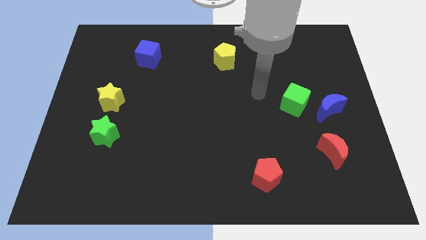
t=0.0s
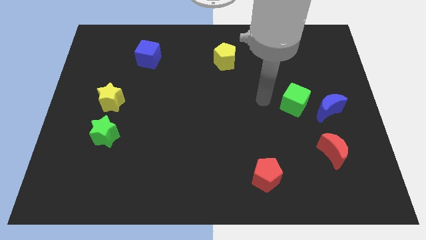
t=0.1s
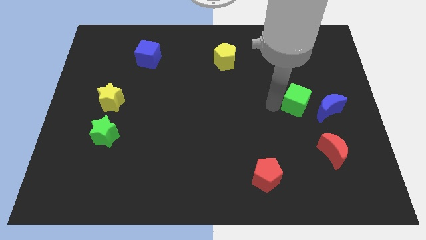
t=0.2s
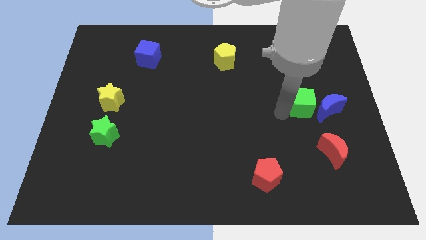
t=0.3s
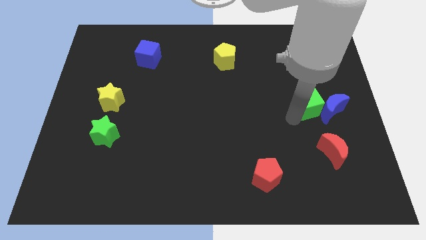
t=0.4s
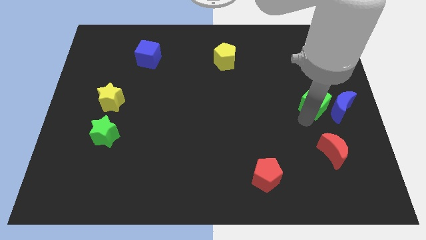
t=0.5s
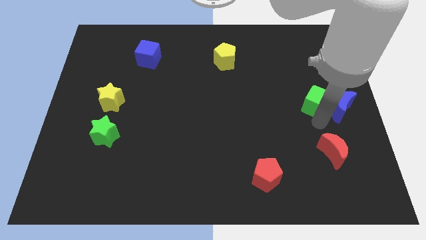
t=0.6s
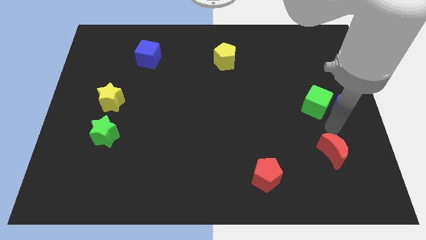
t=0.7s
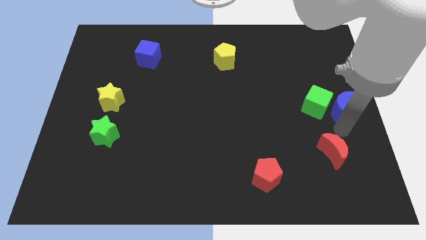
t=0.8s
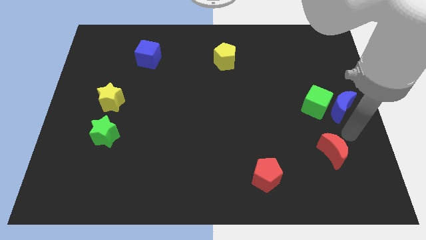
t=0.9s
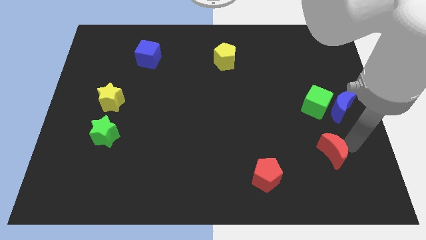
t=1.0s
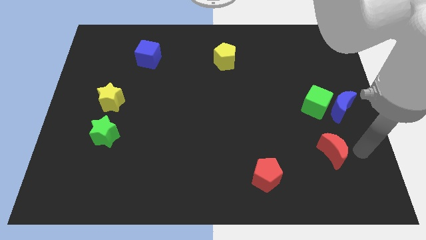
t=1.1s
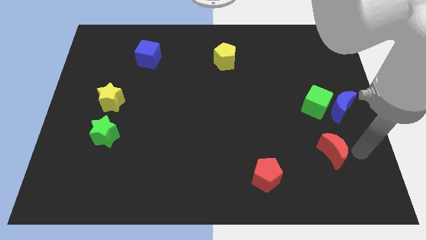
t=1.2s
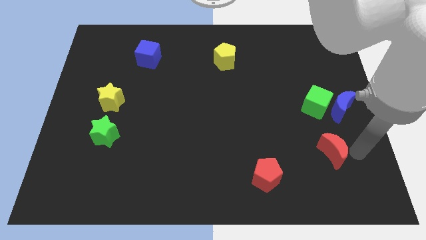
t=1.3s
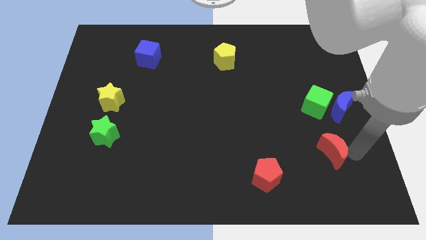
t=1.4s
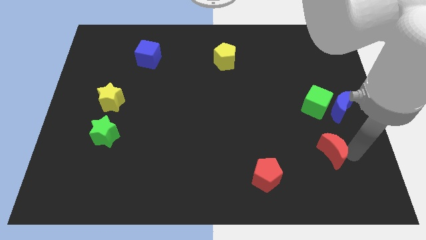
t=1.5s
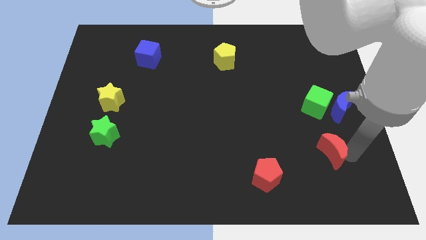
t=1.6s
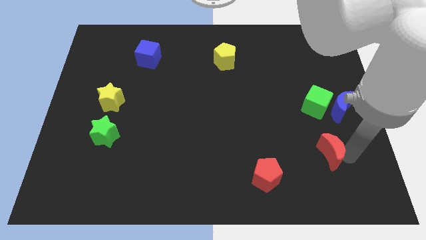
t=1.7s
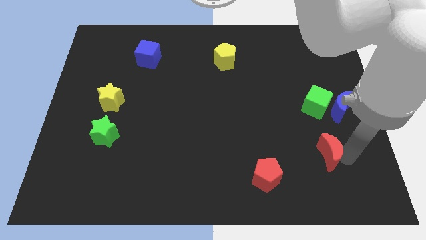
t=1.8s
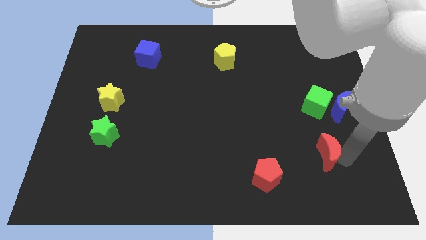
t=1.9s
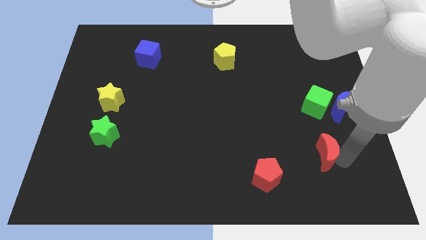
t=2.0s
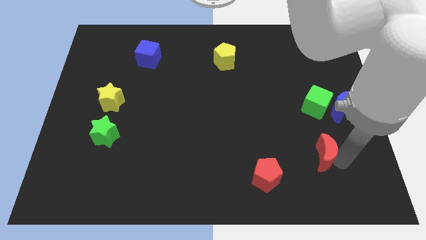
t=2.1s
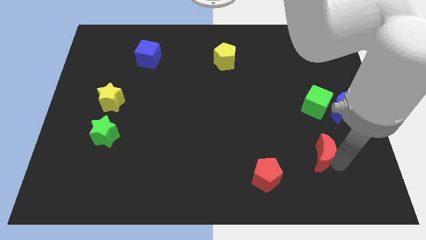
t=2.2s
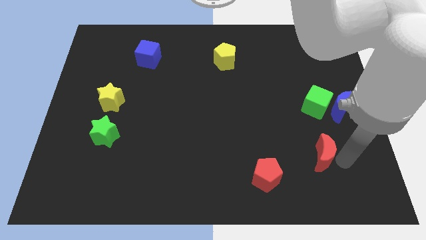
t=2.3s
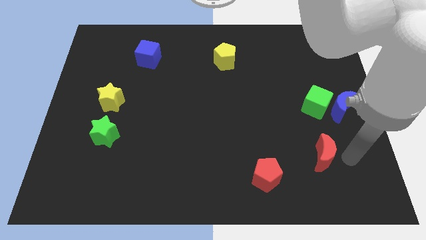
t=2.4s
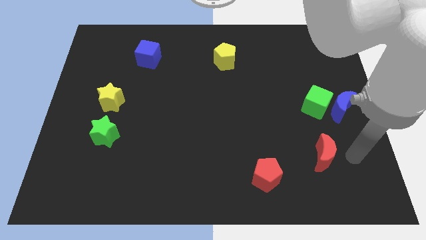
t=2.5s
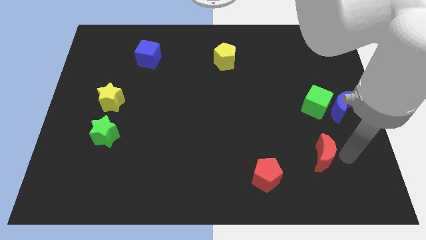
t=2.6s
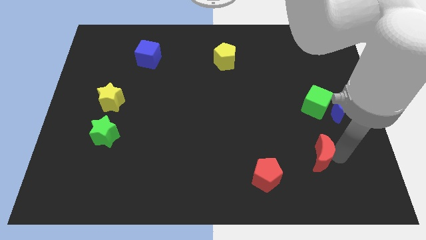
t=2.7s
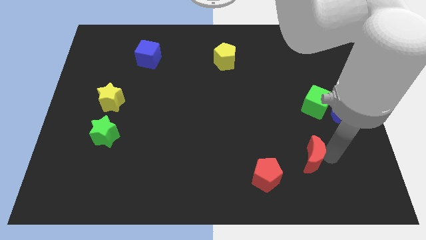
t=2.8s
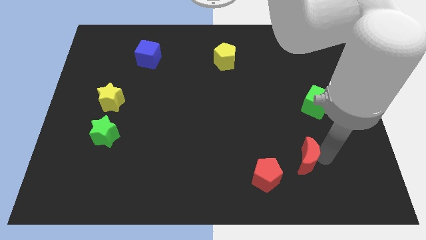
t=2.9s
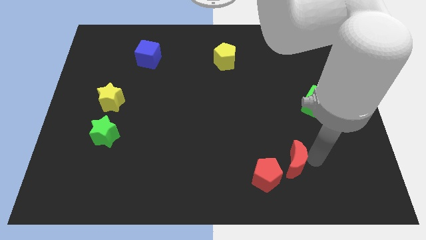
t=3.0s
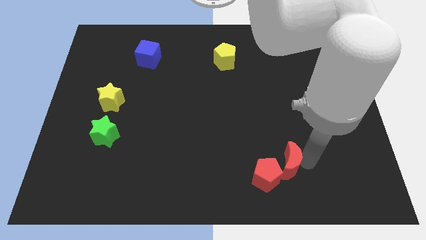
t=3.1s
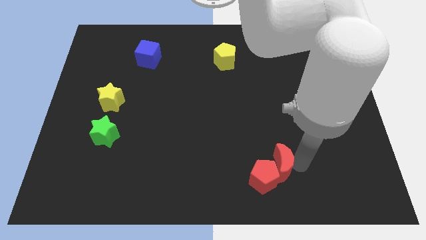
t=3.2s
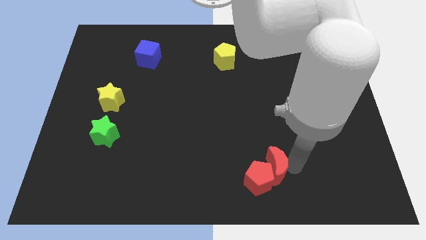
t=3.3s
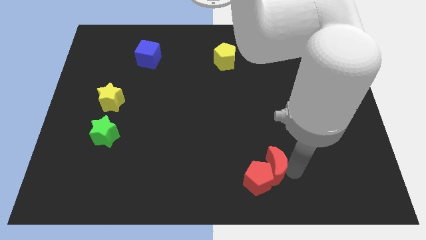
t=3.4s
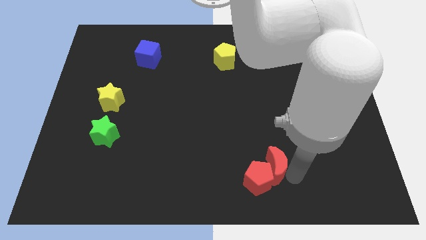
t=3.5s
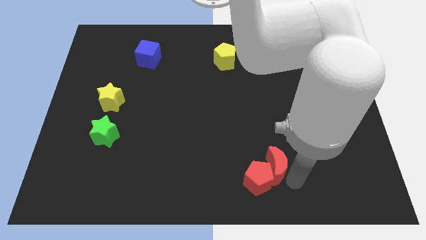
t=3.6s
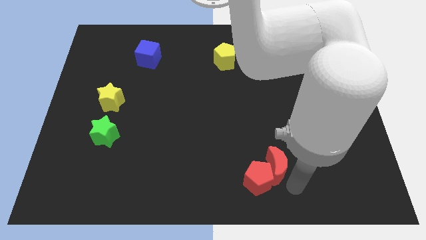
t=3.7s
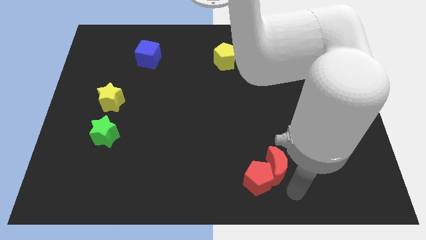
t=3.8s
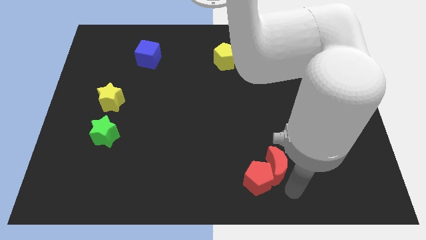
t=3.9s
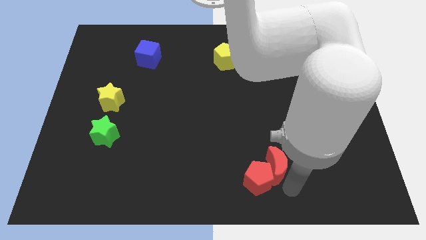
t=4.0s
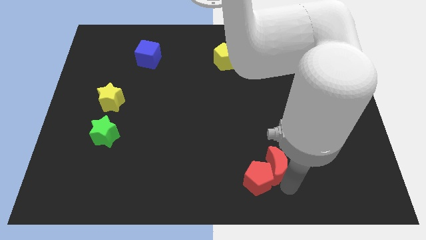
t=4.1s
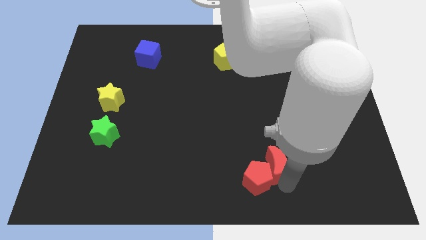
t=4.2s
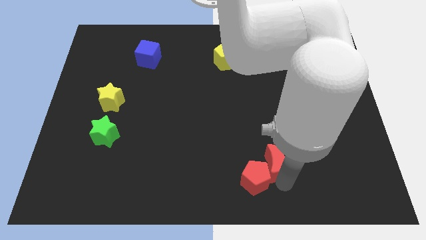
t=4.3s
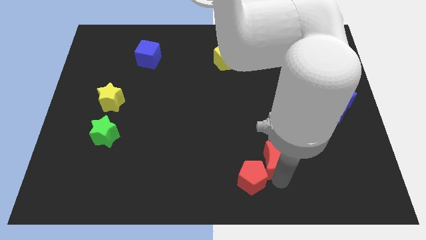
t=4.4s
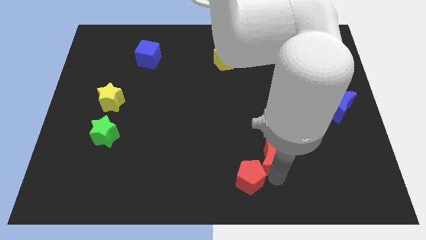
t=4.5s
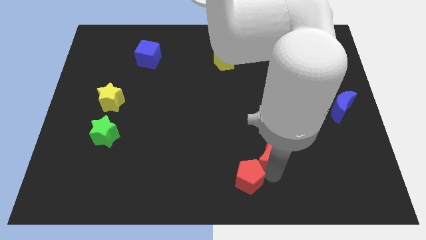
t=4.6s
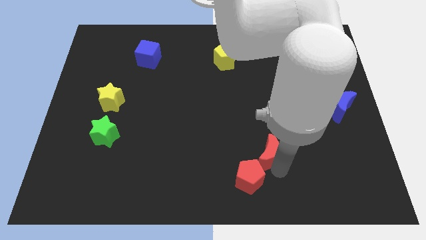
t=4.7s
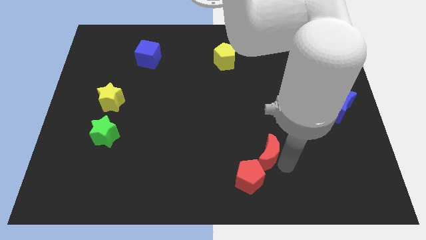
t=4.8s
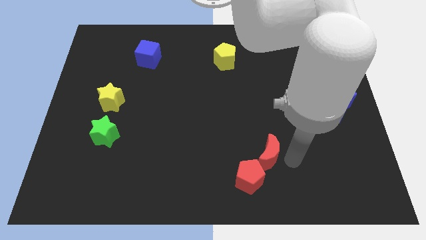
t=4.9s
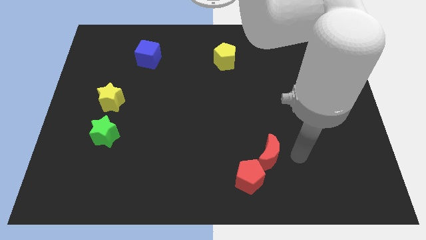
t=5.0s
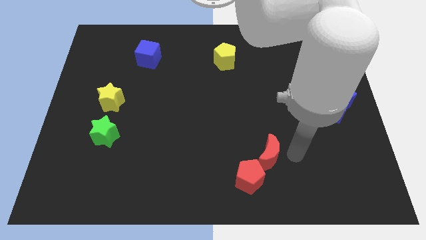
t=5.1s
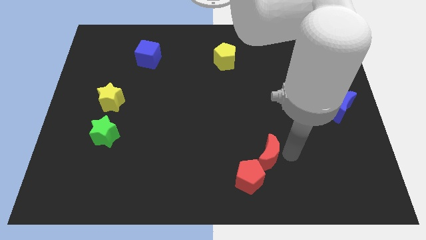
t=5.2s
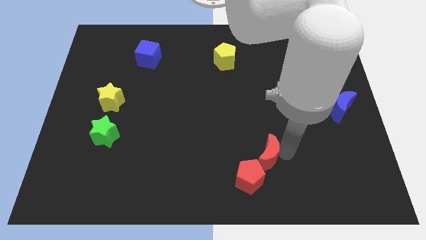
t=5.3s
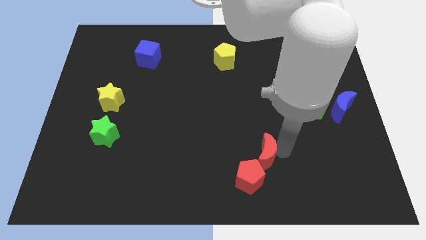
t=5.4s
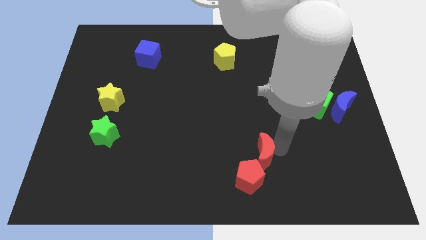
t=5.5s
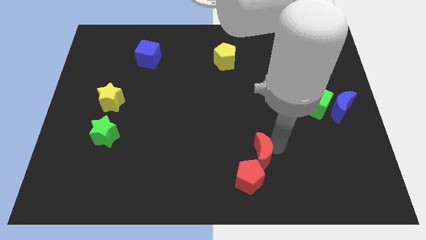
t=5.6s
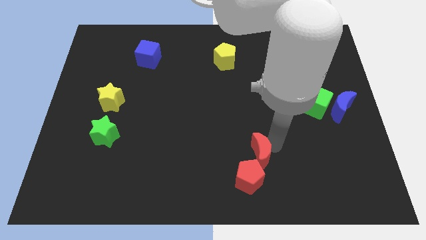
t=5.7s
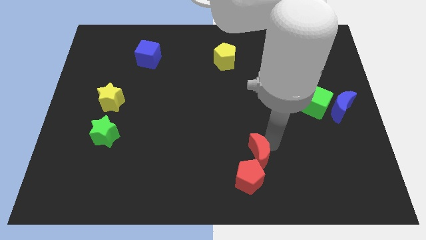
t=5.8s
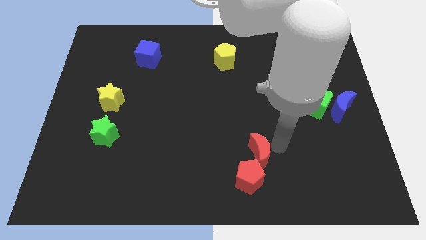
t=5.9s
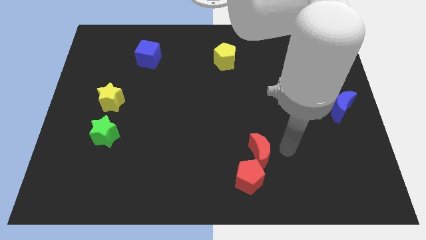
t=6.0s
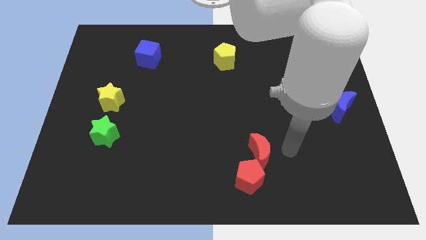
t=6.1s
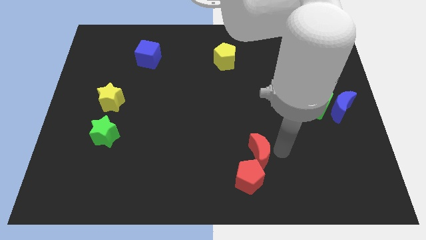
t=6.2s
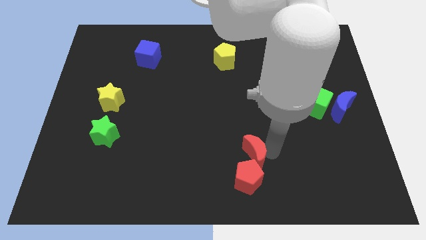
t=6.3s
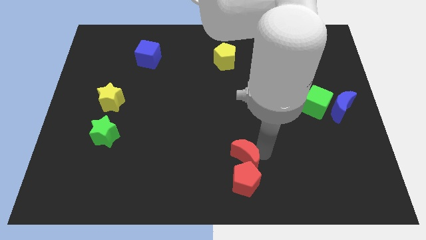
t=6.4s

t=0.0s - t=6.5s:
push the red moon to the top left of the red pentagon

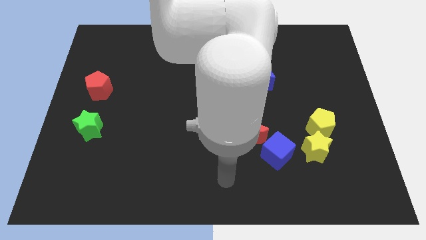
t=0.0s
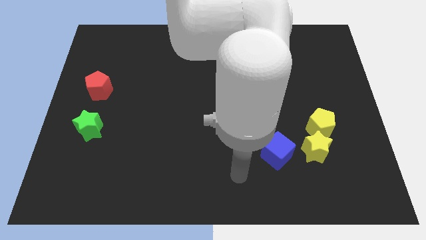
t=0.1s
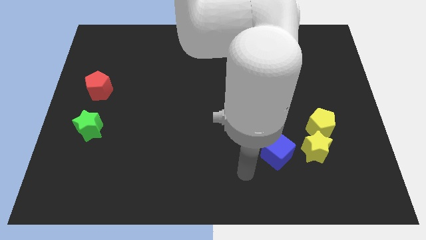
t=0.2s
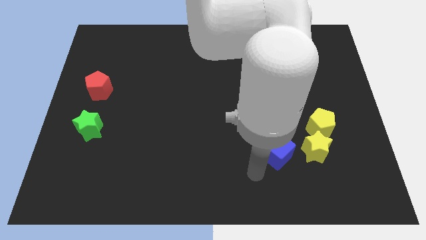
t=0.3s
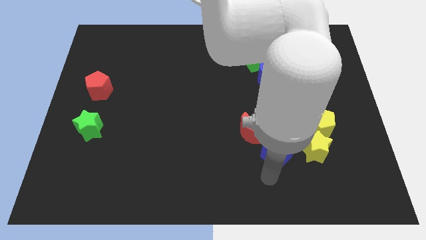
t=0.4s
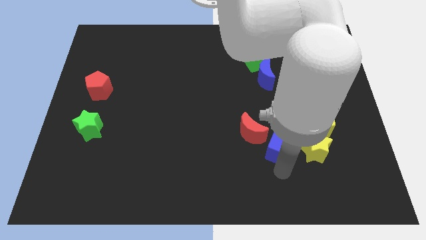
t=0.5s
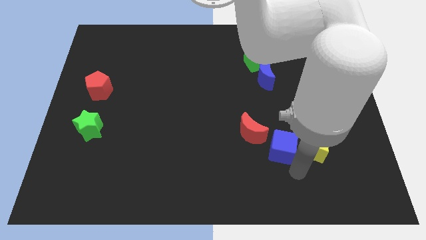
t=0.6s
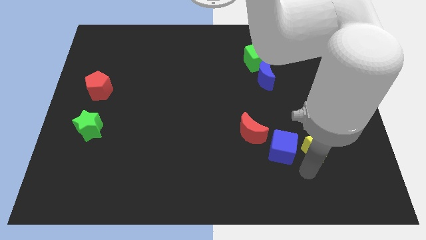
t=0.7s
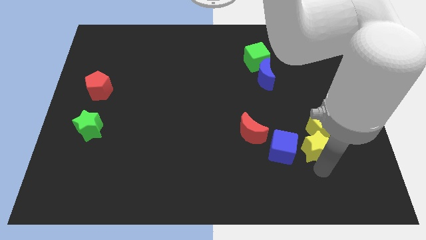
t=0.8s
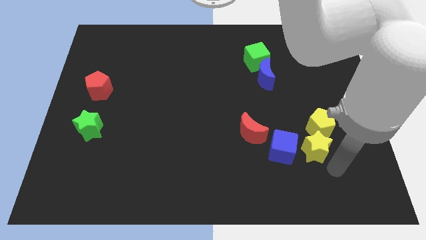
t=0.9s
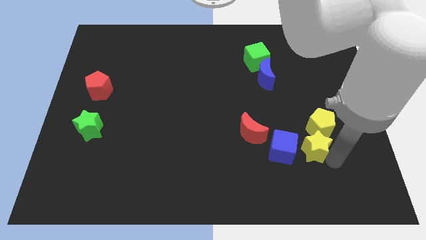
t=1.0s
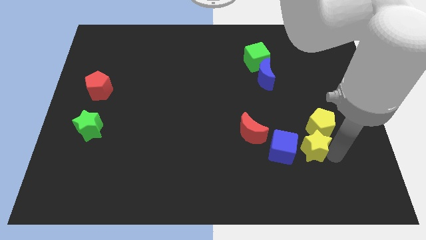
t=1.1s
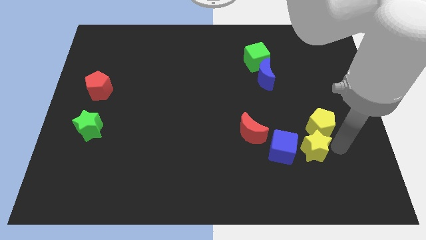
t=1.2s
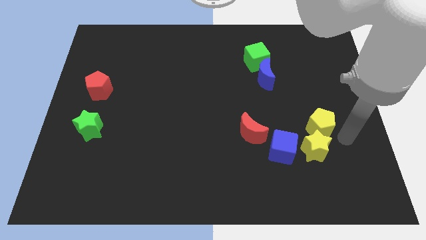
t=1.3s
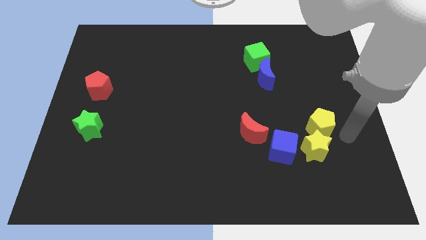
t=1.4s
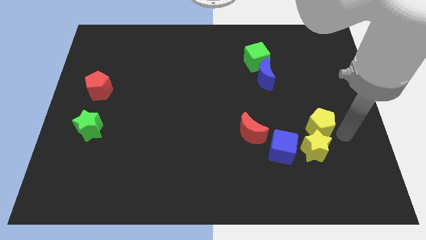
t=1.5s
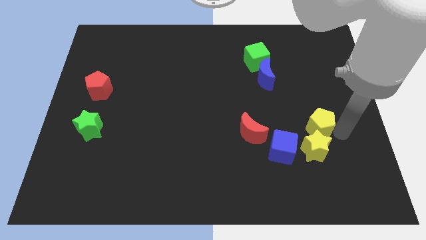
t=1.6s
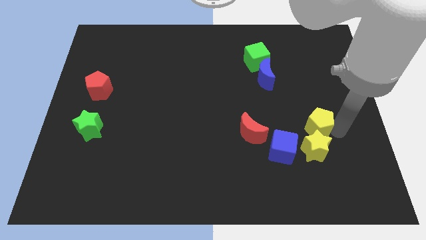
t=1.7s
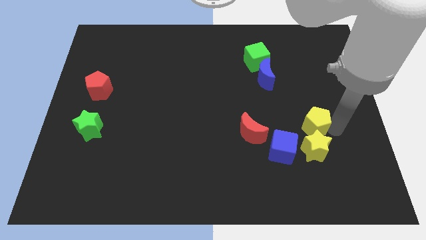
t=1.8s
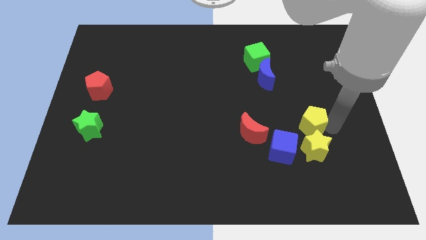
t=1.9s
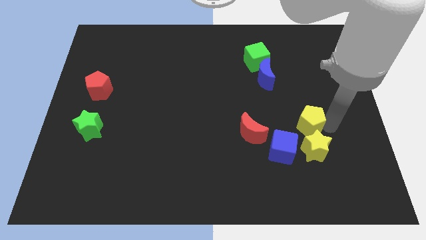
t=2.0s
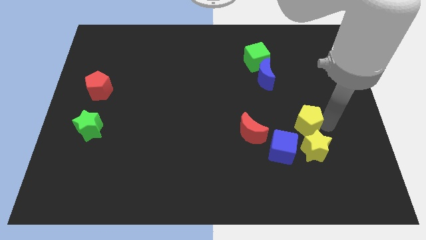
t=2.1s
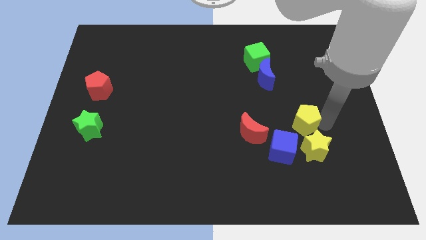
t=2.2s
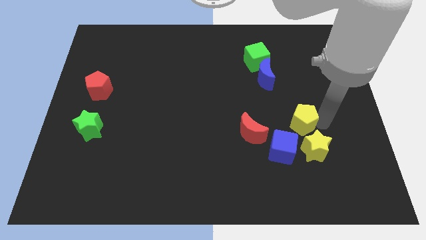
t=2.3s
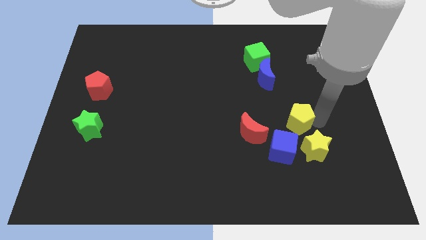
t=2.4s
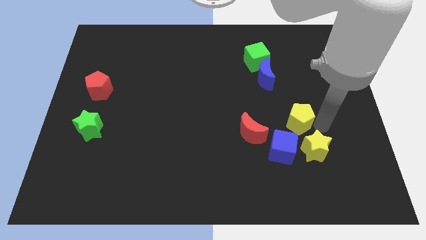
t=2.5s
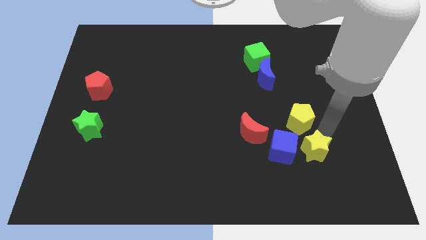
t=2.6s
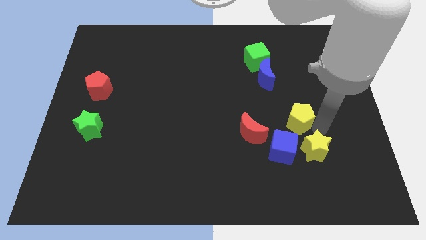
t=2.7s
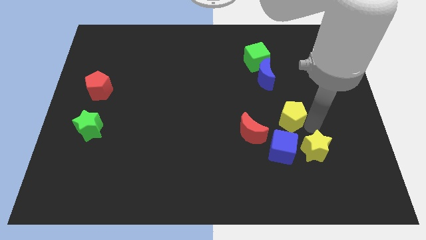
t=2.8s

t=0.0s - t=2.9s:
put the yellow pentagon to the bottom of the blue moon
